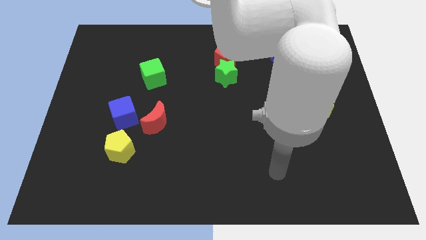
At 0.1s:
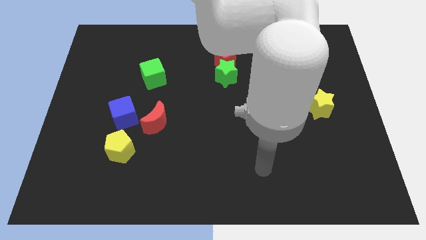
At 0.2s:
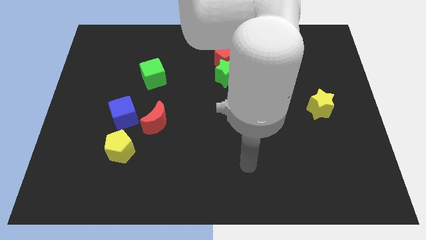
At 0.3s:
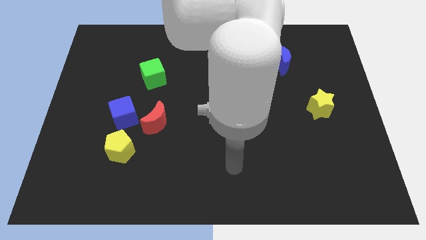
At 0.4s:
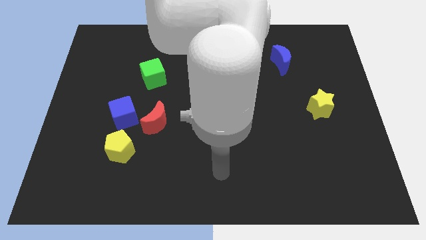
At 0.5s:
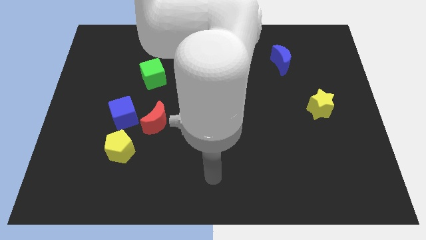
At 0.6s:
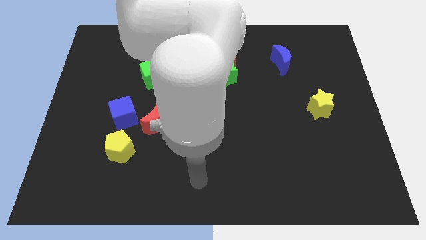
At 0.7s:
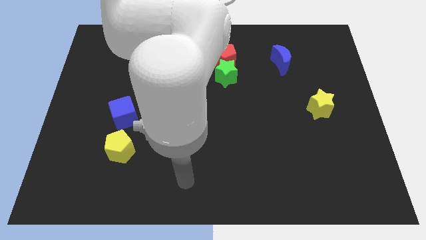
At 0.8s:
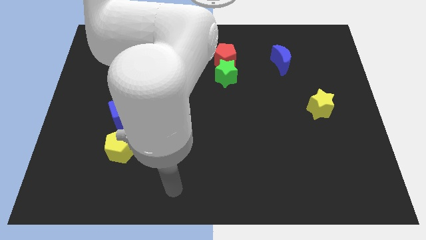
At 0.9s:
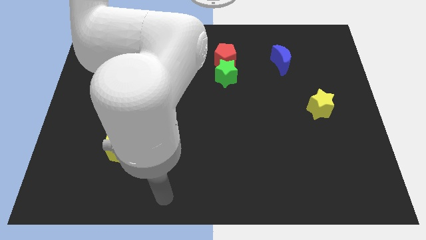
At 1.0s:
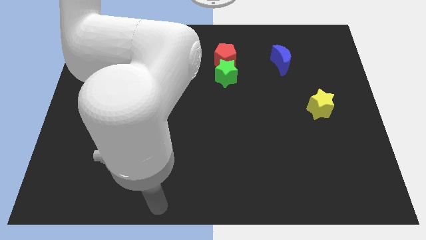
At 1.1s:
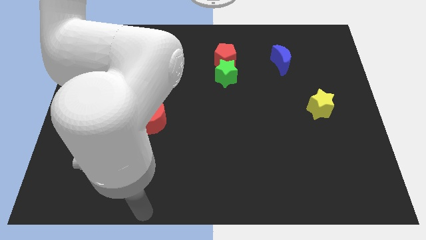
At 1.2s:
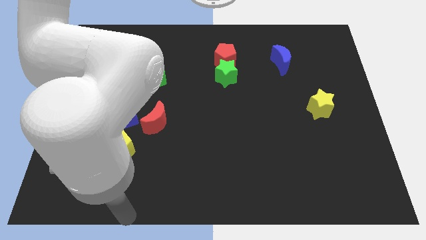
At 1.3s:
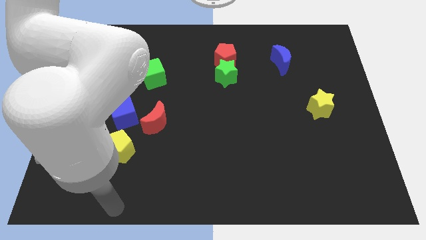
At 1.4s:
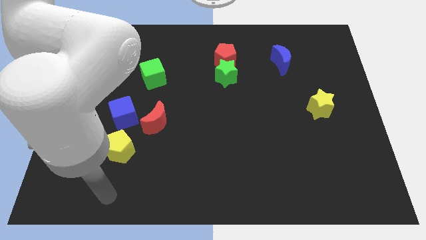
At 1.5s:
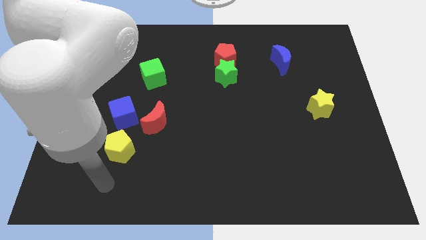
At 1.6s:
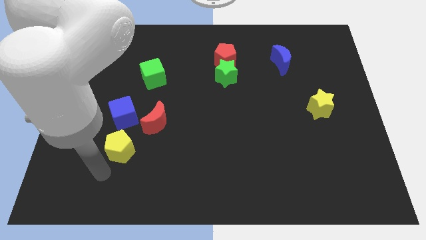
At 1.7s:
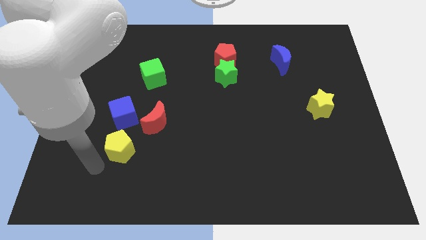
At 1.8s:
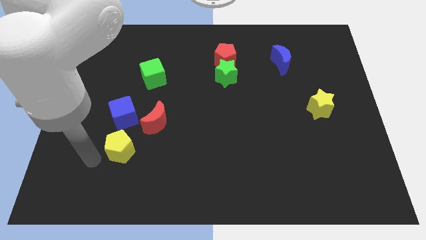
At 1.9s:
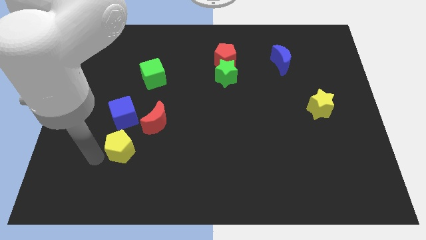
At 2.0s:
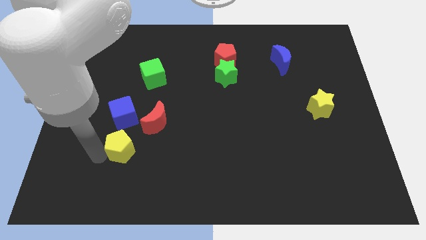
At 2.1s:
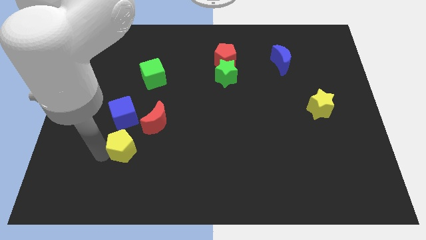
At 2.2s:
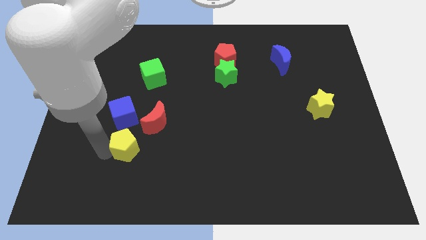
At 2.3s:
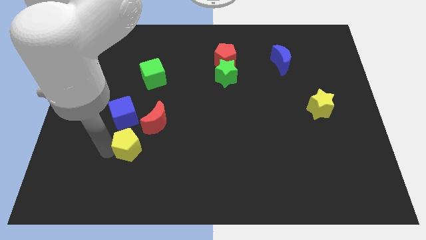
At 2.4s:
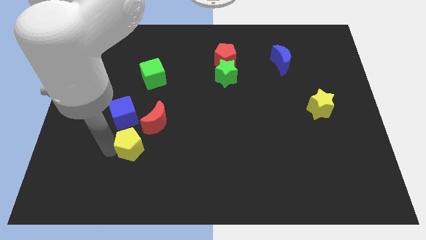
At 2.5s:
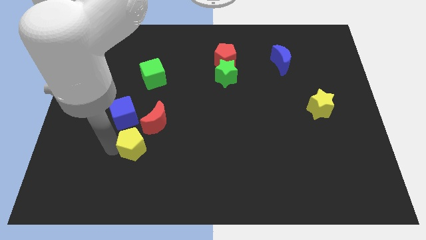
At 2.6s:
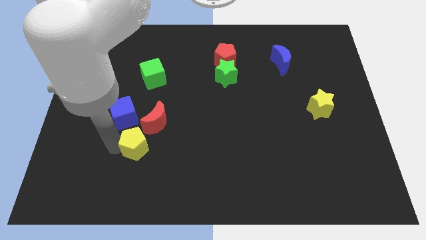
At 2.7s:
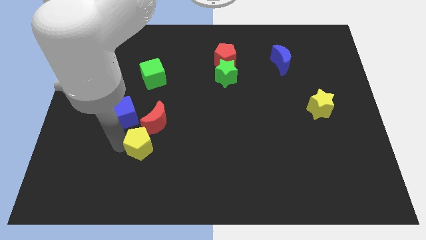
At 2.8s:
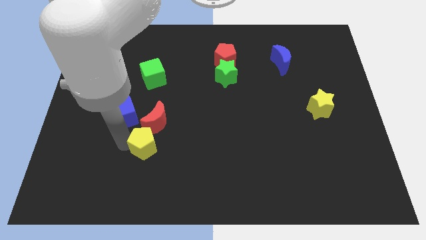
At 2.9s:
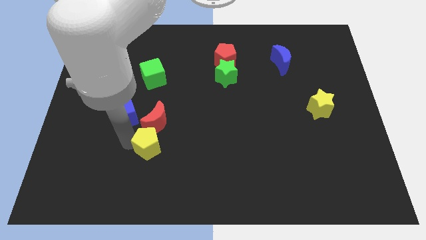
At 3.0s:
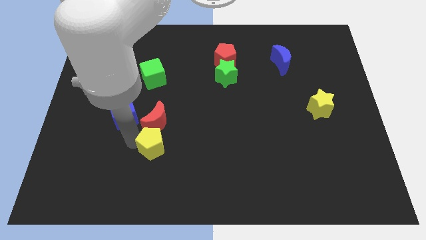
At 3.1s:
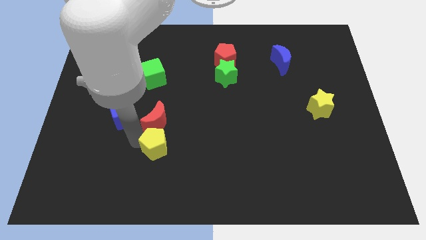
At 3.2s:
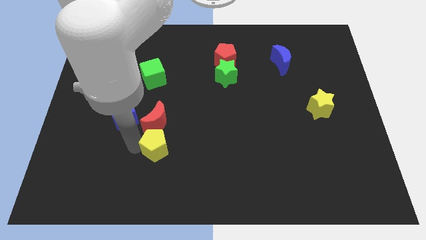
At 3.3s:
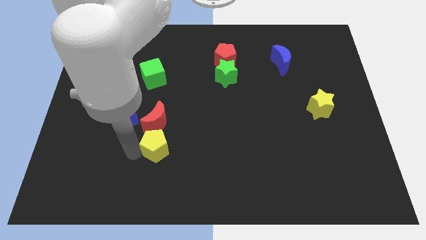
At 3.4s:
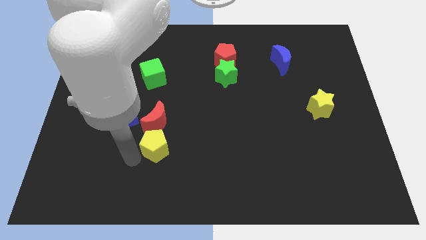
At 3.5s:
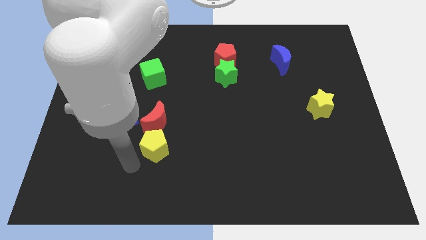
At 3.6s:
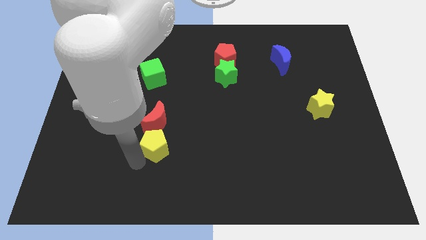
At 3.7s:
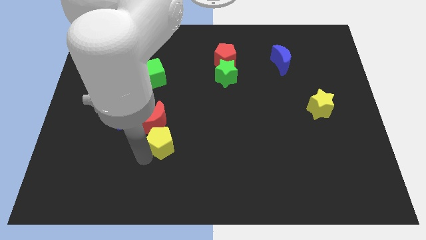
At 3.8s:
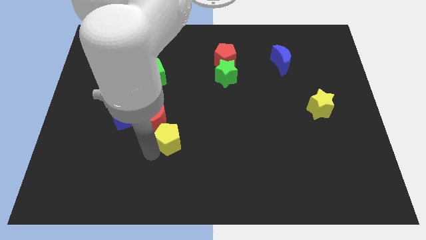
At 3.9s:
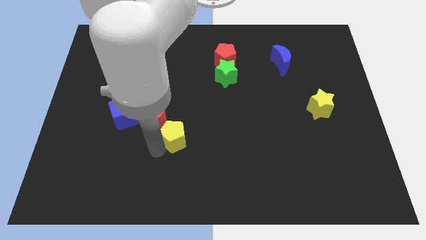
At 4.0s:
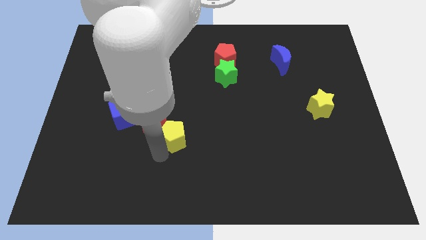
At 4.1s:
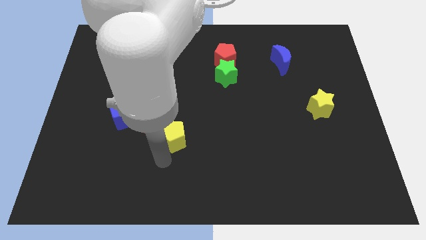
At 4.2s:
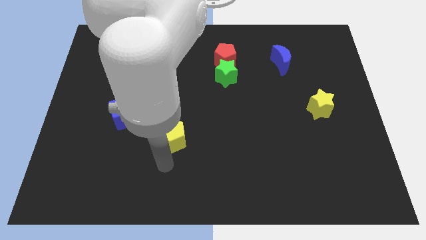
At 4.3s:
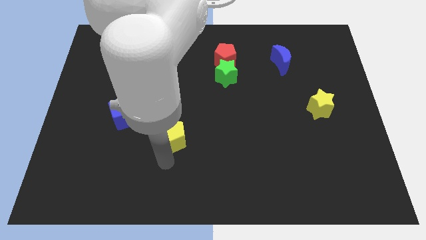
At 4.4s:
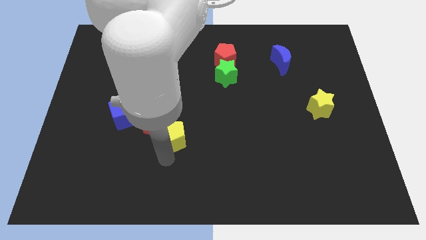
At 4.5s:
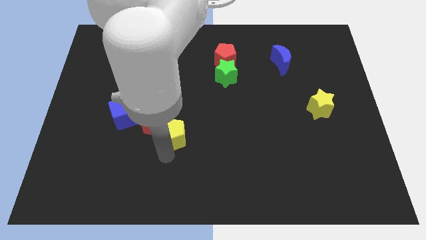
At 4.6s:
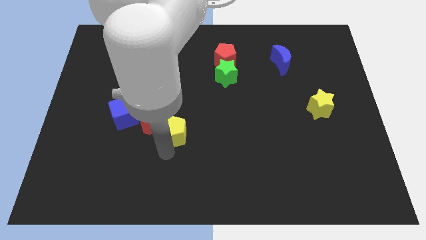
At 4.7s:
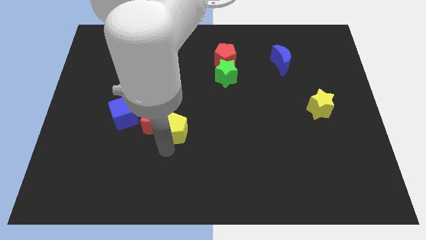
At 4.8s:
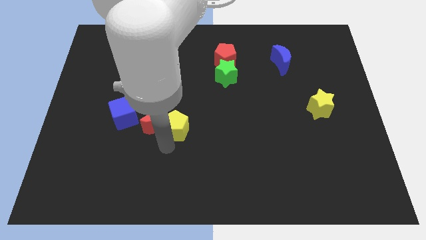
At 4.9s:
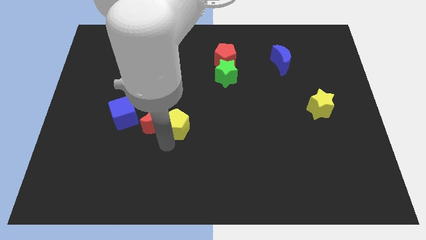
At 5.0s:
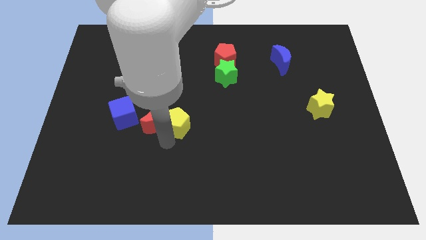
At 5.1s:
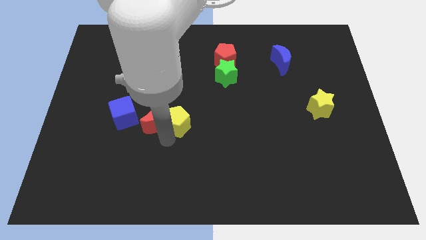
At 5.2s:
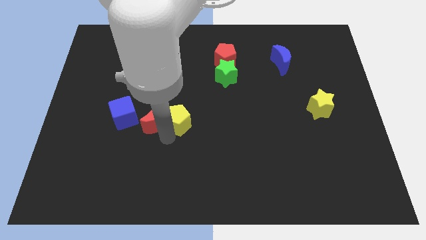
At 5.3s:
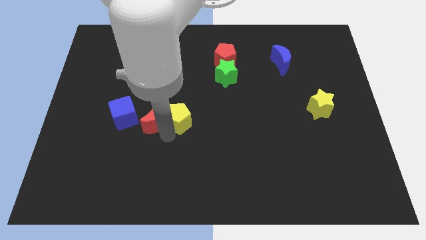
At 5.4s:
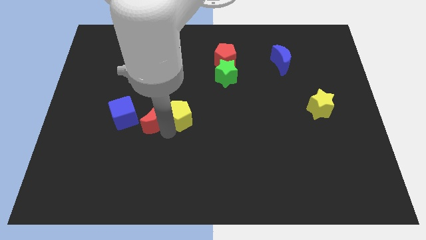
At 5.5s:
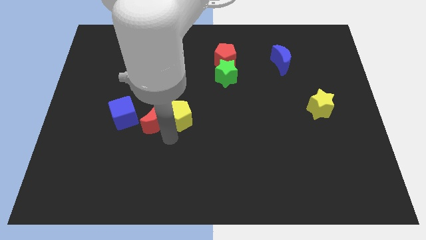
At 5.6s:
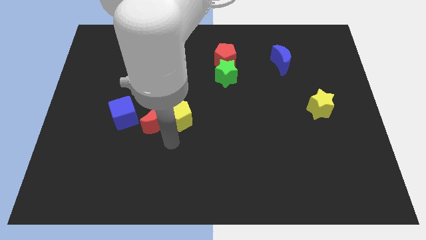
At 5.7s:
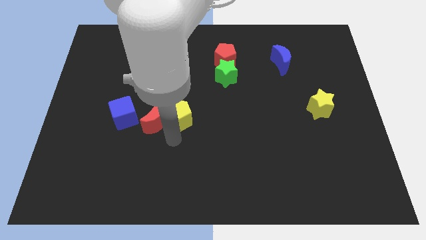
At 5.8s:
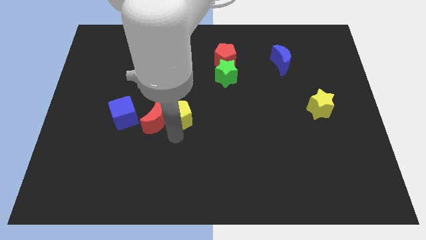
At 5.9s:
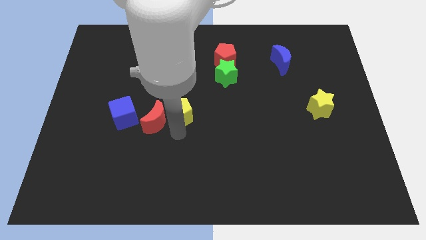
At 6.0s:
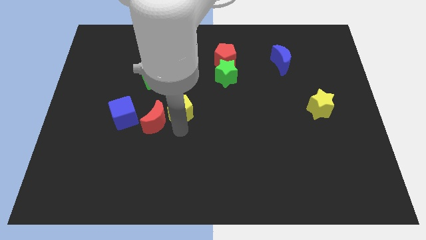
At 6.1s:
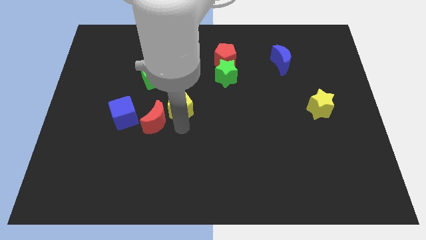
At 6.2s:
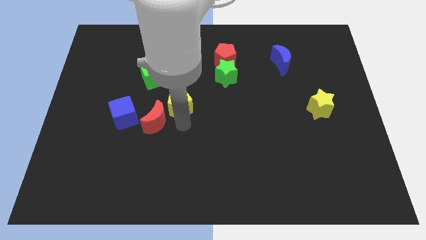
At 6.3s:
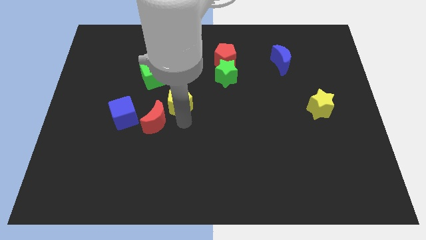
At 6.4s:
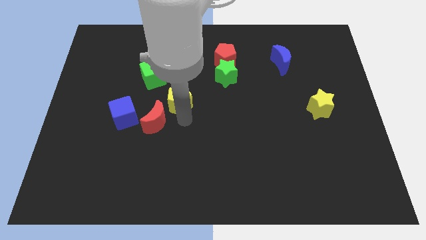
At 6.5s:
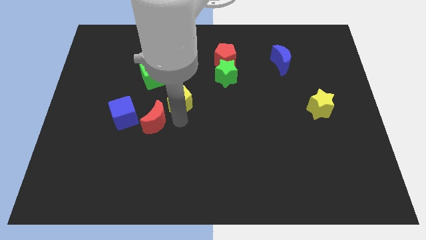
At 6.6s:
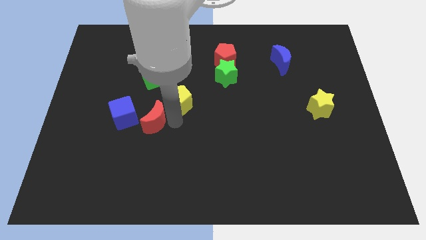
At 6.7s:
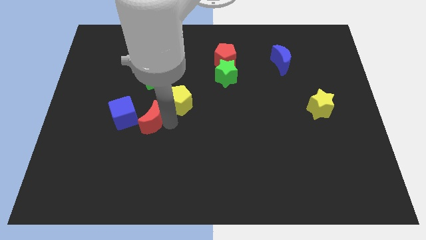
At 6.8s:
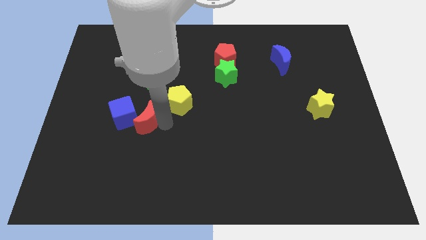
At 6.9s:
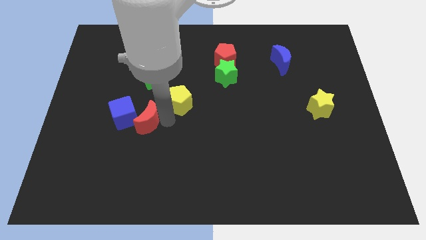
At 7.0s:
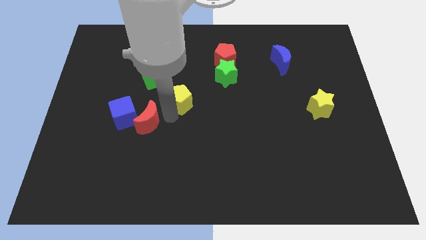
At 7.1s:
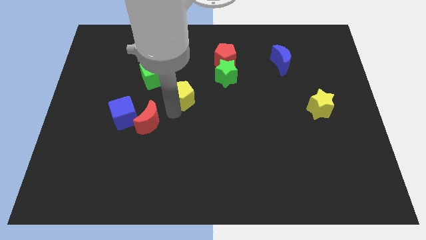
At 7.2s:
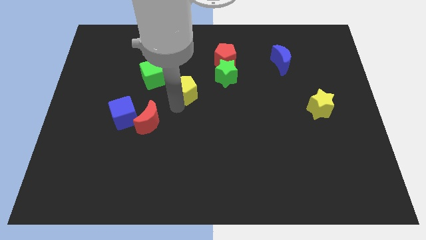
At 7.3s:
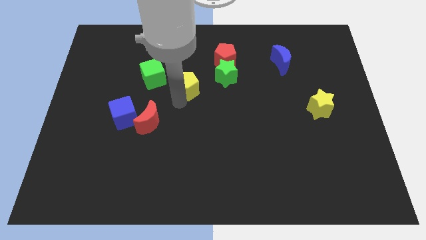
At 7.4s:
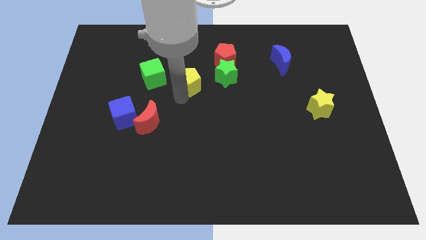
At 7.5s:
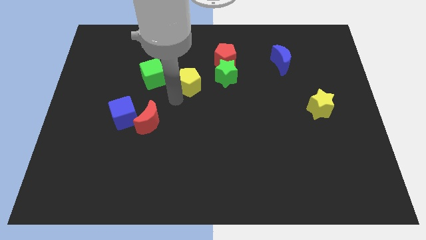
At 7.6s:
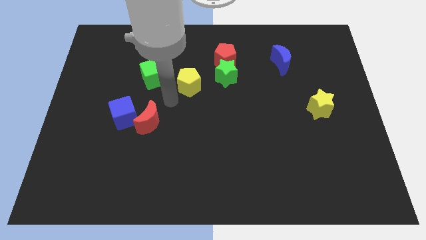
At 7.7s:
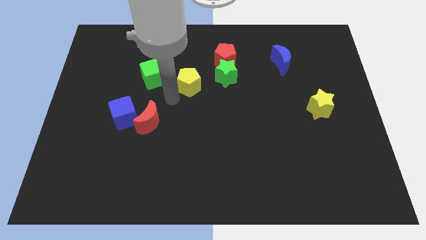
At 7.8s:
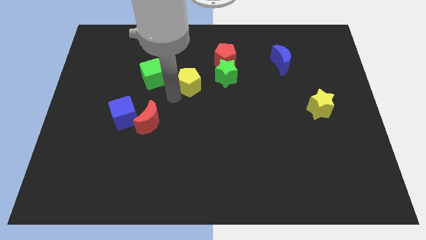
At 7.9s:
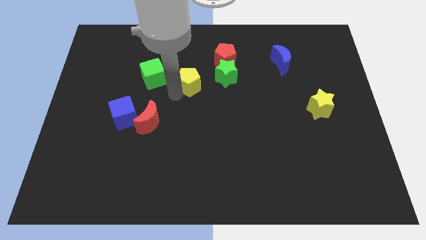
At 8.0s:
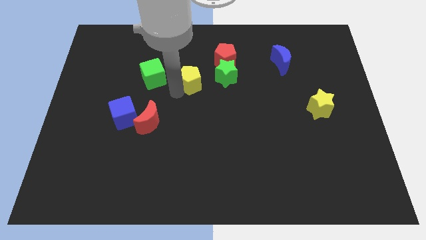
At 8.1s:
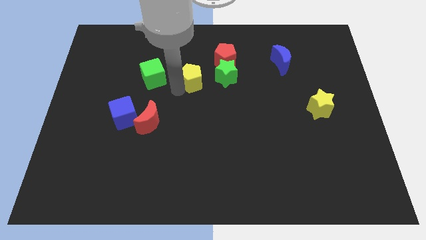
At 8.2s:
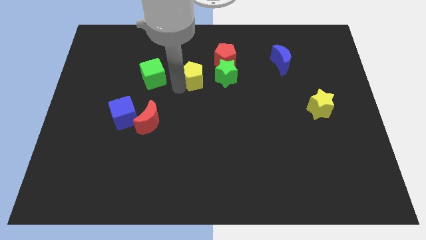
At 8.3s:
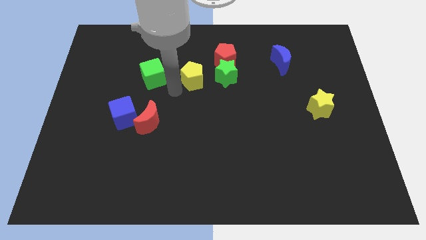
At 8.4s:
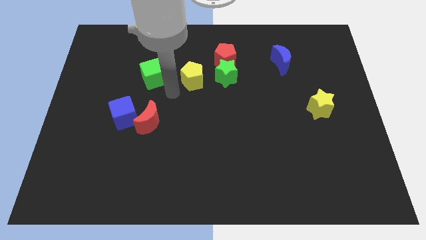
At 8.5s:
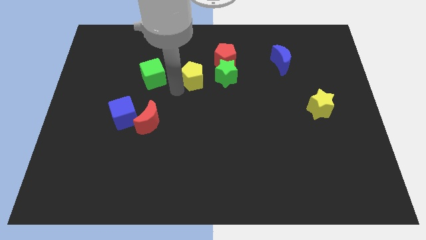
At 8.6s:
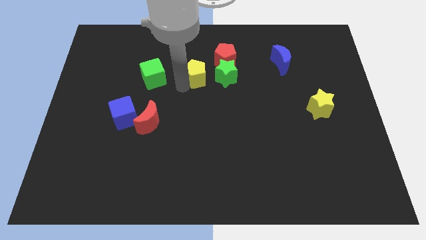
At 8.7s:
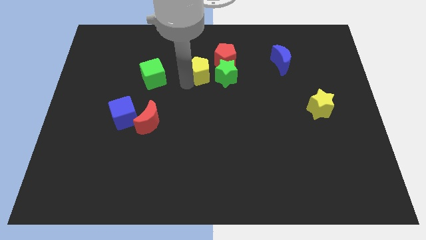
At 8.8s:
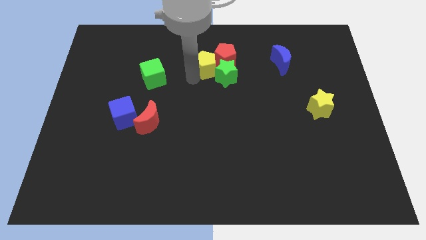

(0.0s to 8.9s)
push the yellow pentagon close to the red pentagon
